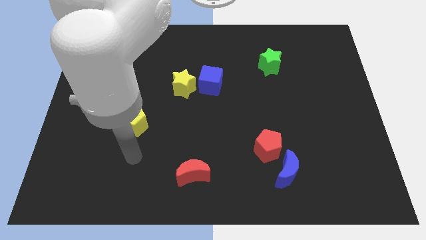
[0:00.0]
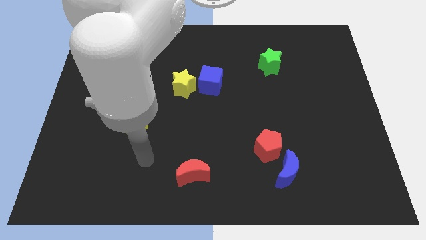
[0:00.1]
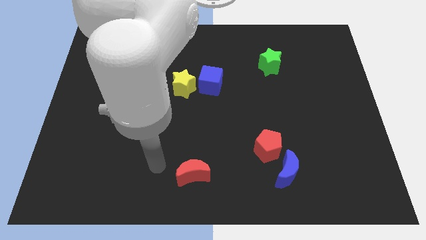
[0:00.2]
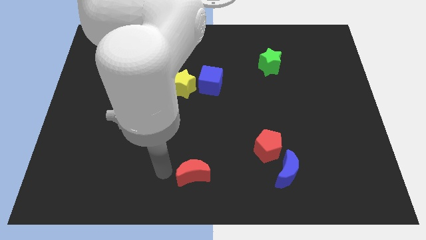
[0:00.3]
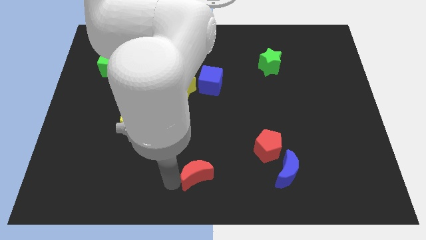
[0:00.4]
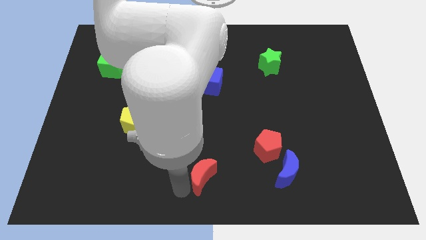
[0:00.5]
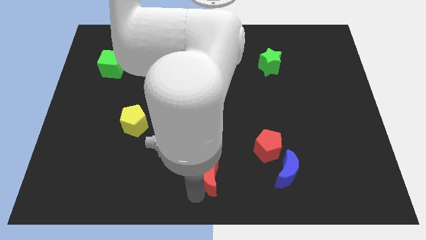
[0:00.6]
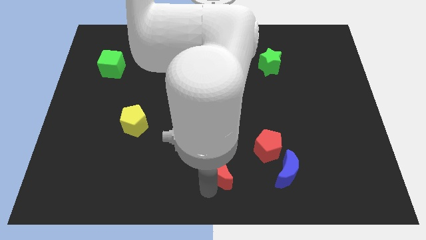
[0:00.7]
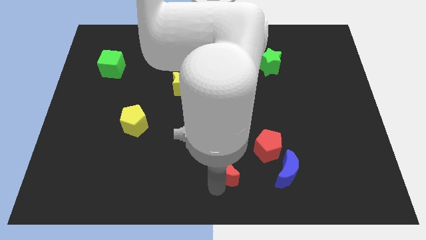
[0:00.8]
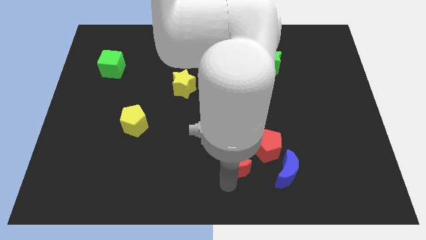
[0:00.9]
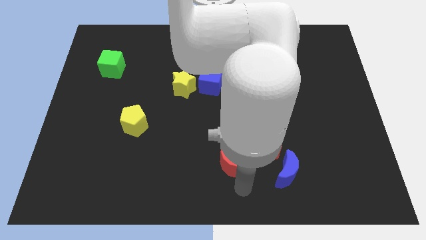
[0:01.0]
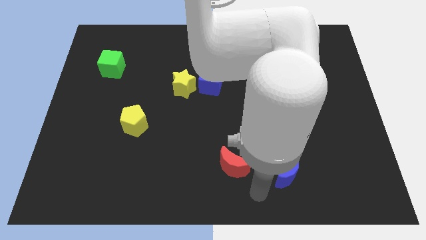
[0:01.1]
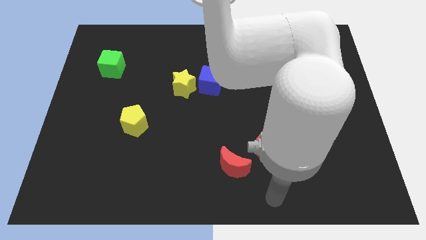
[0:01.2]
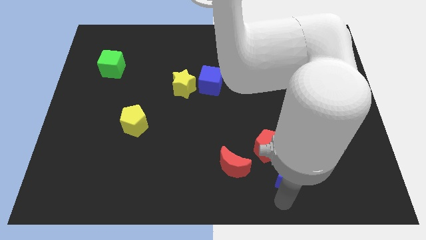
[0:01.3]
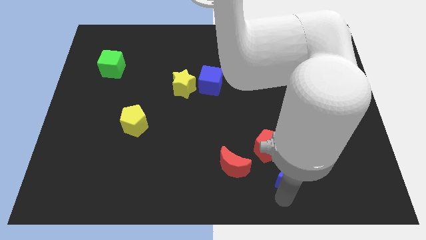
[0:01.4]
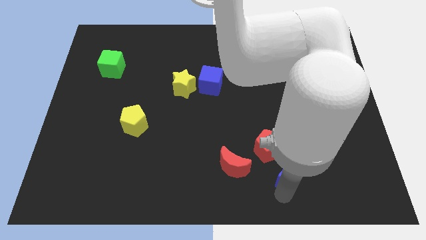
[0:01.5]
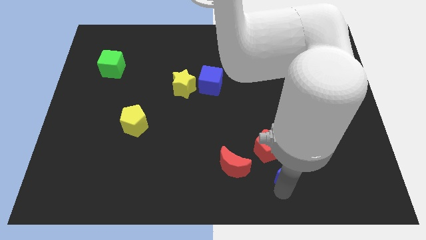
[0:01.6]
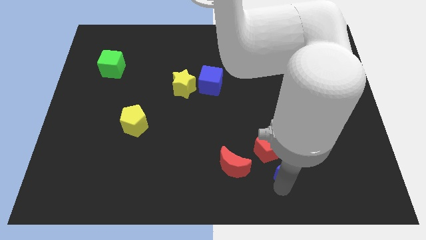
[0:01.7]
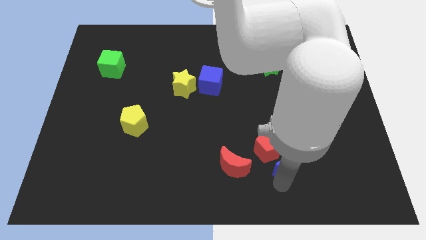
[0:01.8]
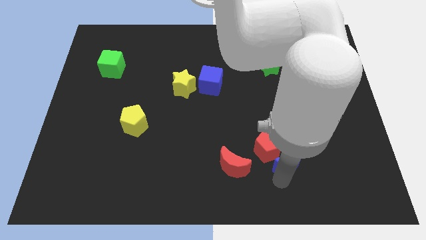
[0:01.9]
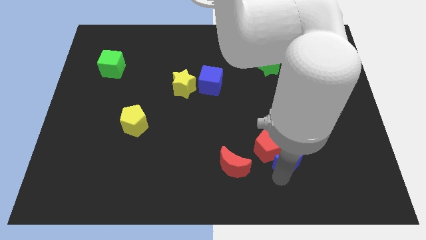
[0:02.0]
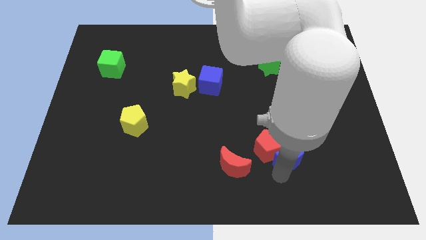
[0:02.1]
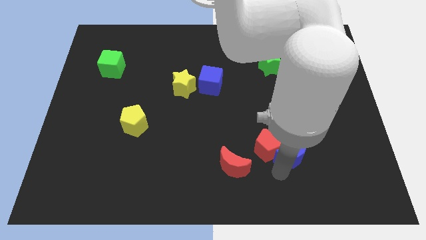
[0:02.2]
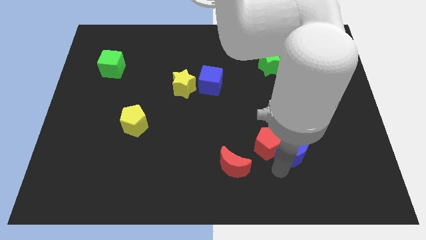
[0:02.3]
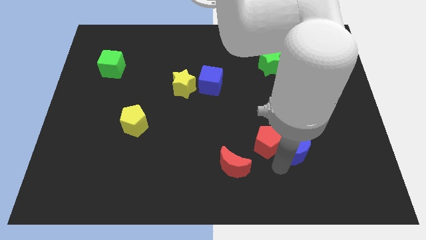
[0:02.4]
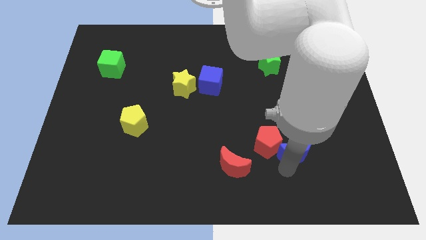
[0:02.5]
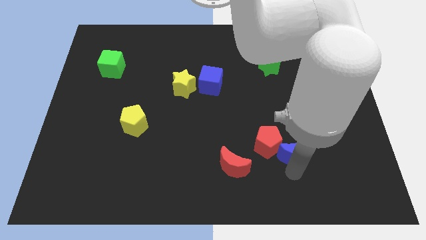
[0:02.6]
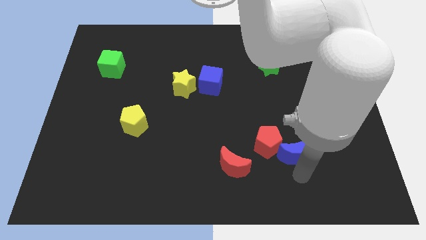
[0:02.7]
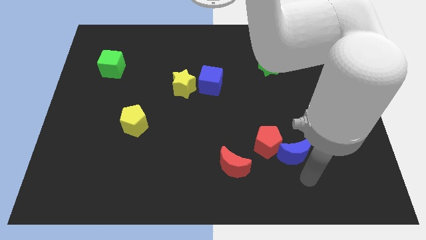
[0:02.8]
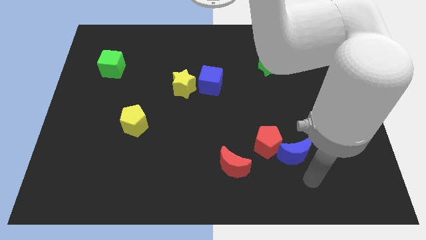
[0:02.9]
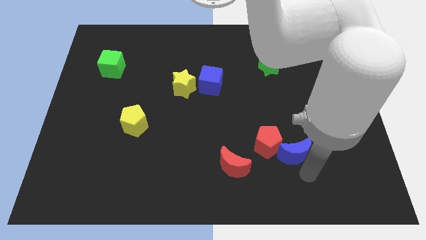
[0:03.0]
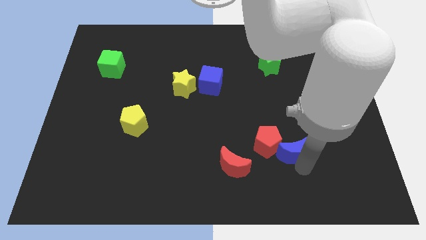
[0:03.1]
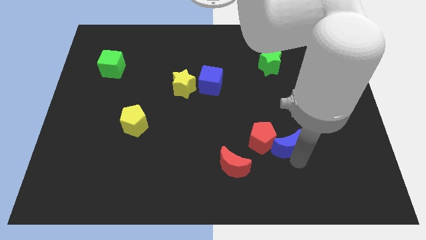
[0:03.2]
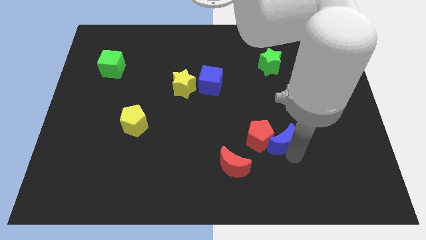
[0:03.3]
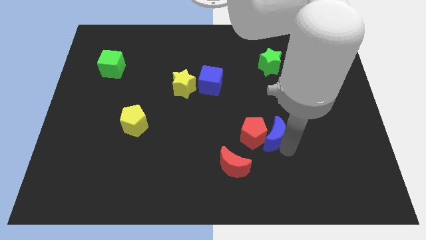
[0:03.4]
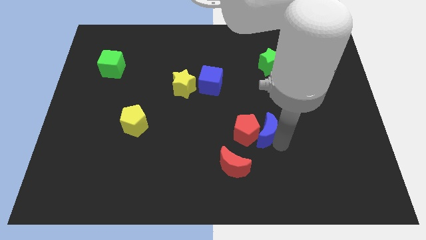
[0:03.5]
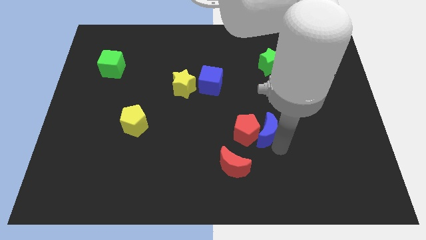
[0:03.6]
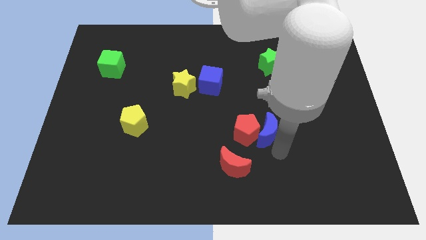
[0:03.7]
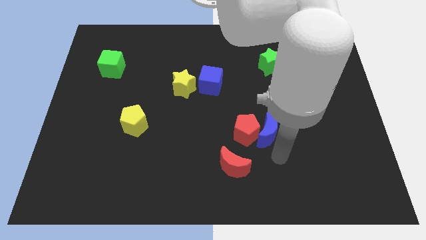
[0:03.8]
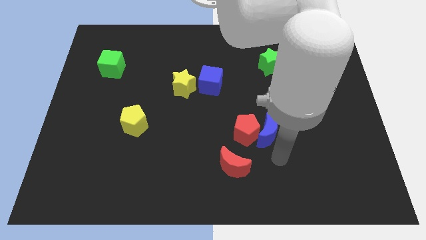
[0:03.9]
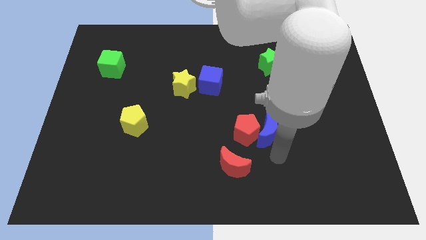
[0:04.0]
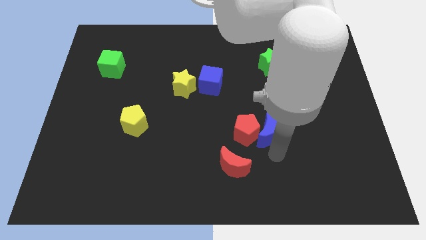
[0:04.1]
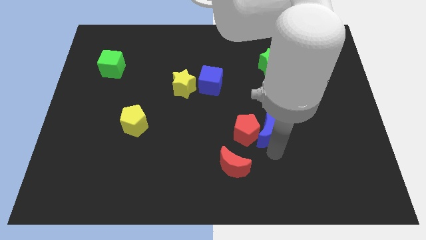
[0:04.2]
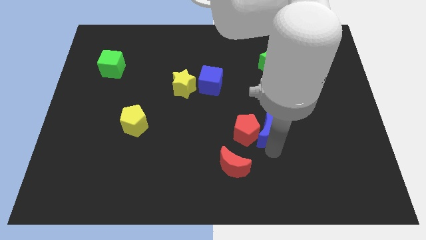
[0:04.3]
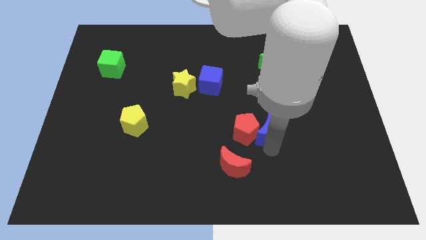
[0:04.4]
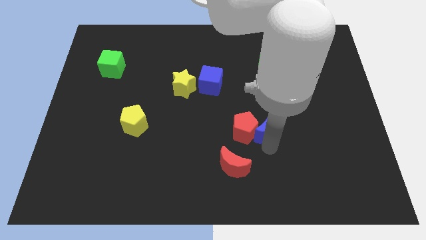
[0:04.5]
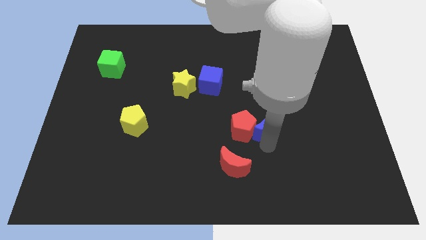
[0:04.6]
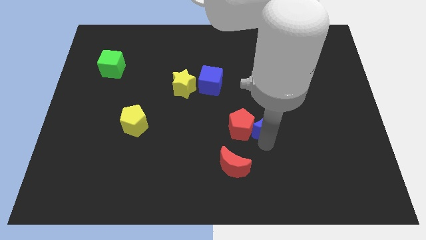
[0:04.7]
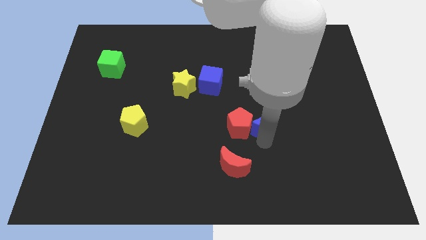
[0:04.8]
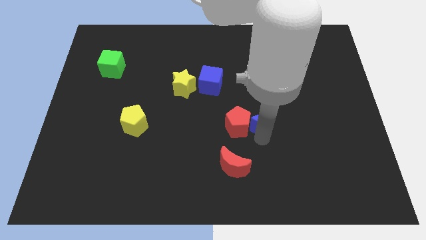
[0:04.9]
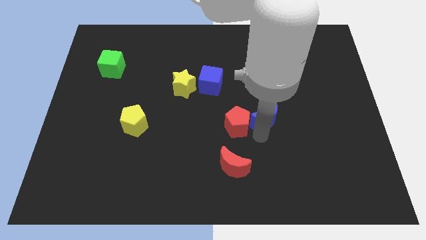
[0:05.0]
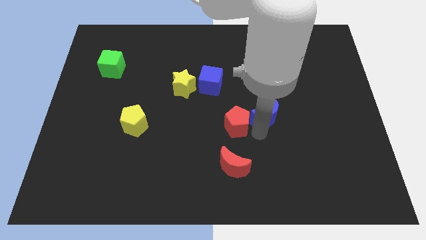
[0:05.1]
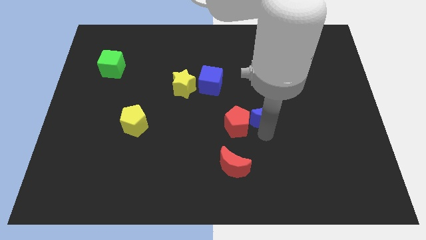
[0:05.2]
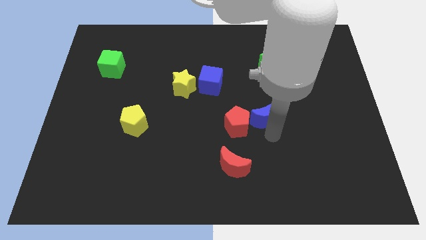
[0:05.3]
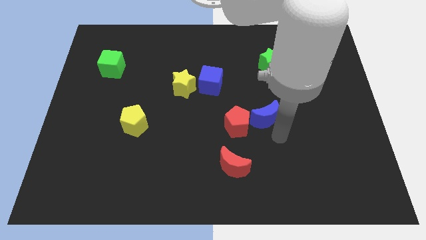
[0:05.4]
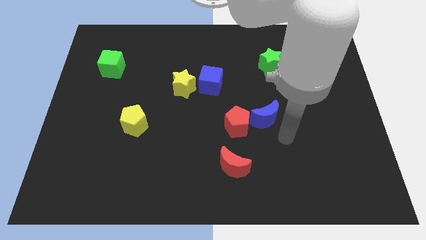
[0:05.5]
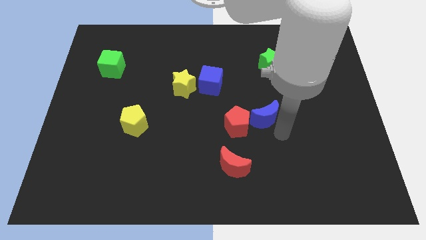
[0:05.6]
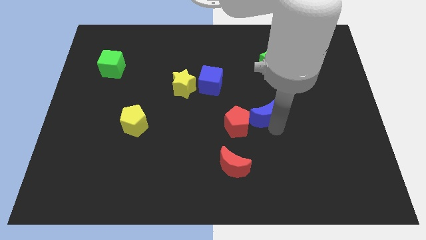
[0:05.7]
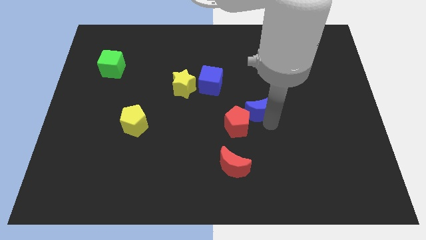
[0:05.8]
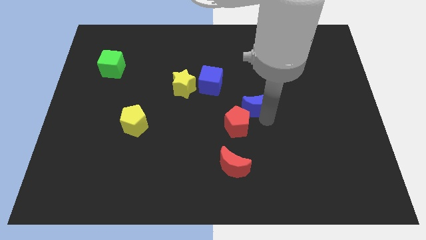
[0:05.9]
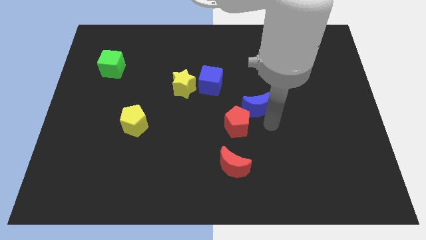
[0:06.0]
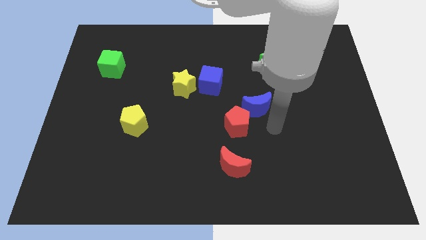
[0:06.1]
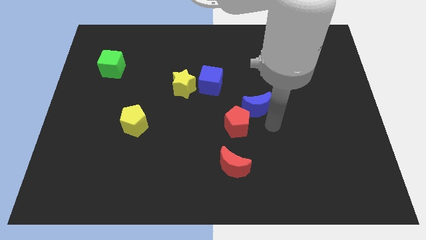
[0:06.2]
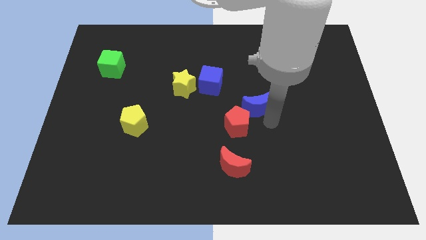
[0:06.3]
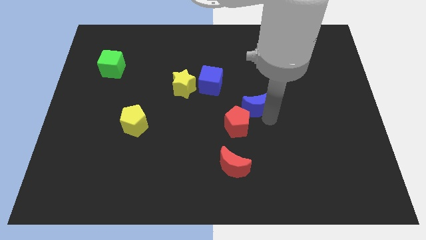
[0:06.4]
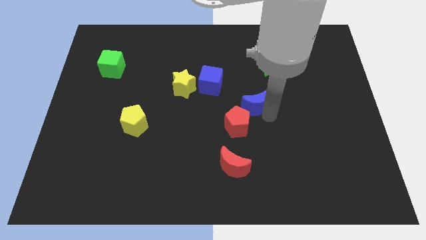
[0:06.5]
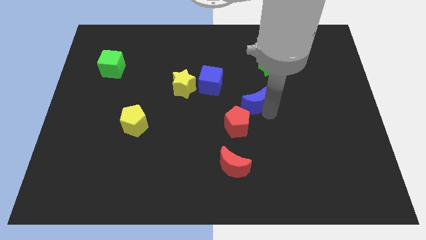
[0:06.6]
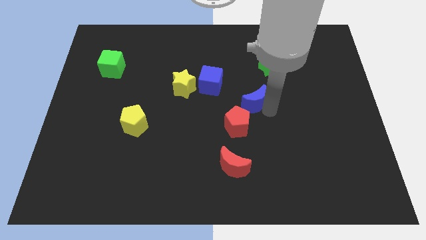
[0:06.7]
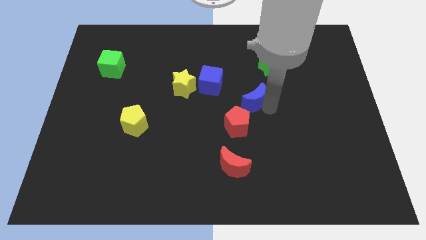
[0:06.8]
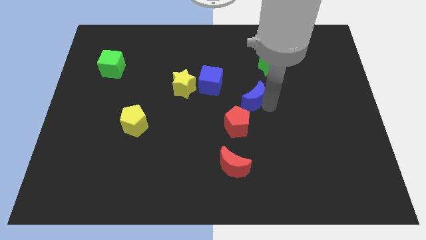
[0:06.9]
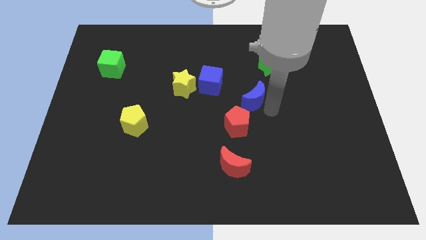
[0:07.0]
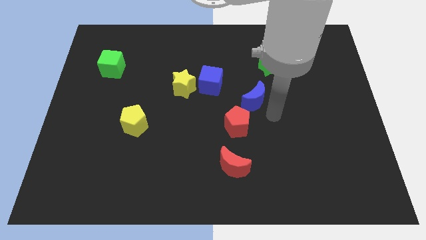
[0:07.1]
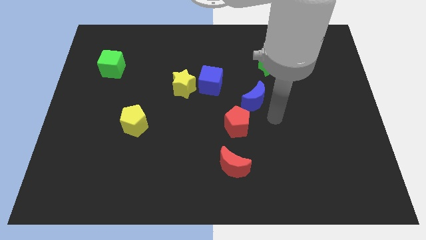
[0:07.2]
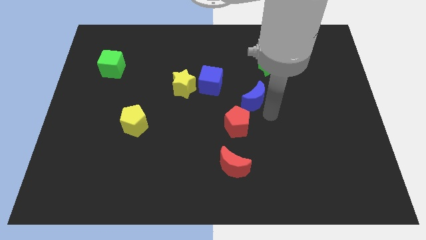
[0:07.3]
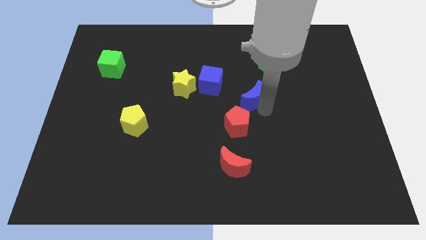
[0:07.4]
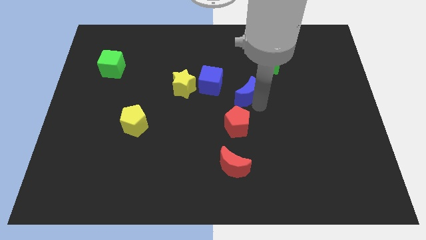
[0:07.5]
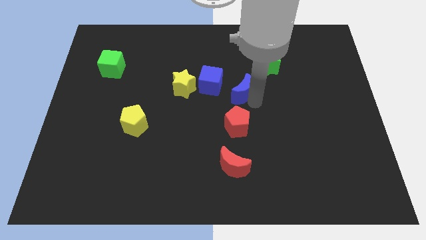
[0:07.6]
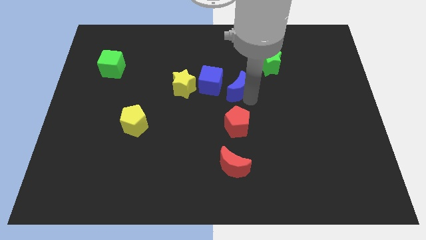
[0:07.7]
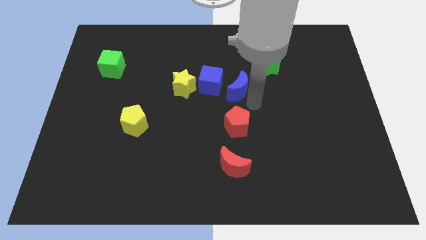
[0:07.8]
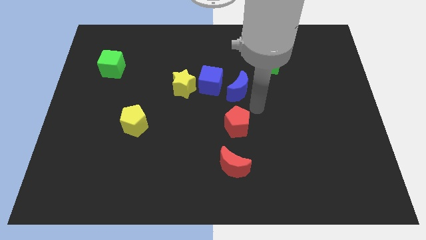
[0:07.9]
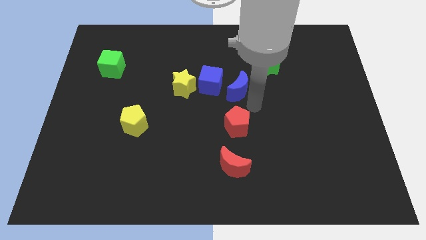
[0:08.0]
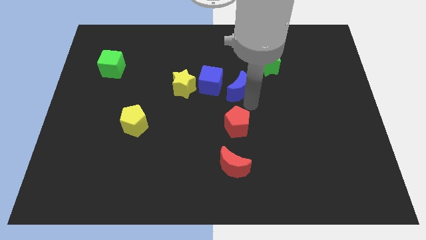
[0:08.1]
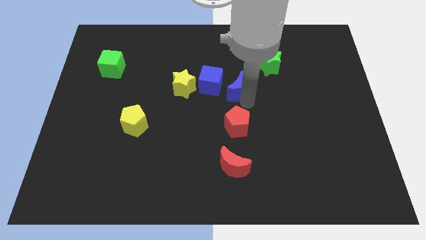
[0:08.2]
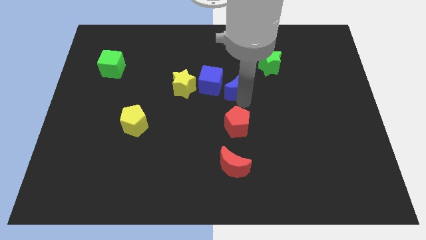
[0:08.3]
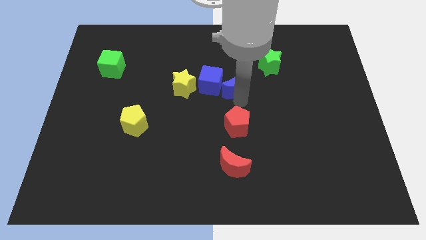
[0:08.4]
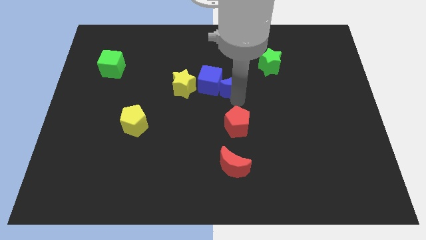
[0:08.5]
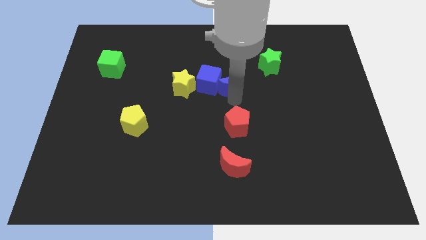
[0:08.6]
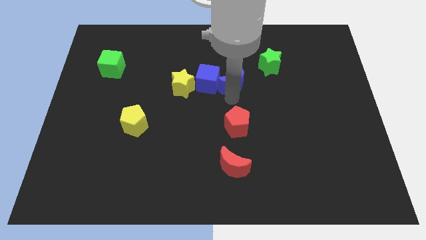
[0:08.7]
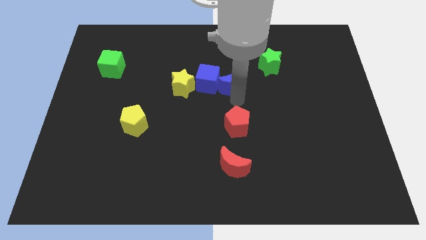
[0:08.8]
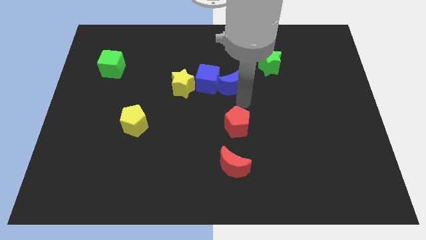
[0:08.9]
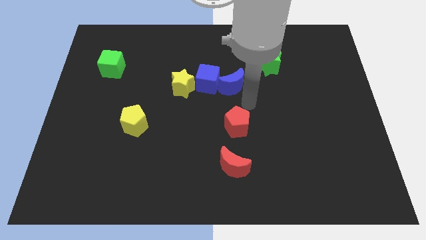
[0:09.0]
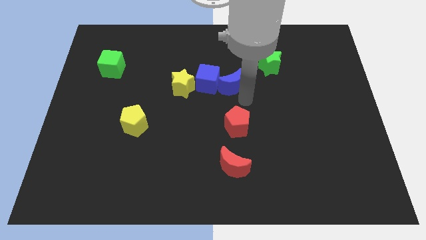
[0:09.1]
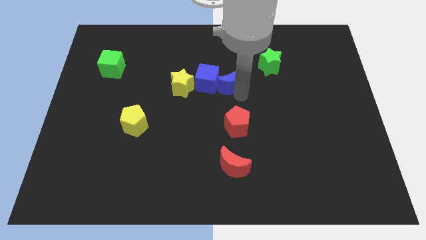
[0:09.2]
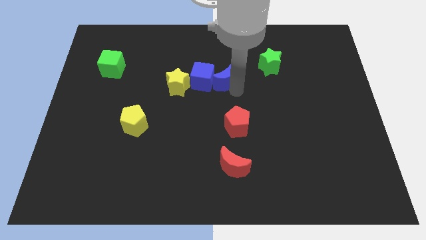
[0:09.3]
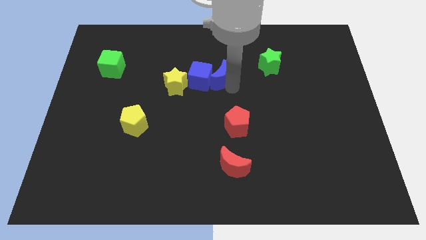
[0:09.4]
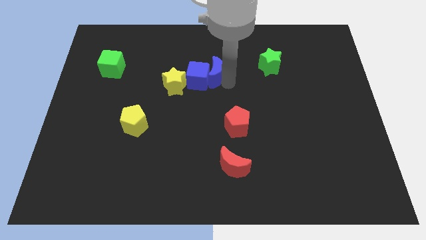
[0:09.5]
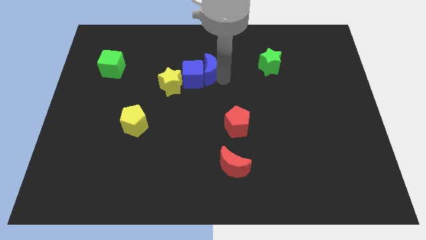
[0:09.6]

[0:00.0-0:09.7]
put the blue moon to the top right side of the yellow star
